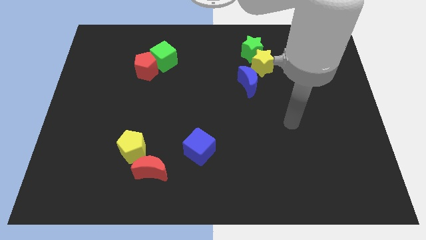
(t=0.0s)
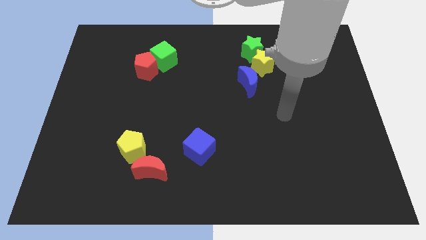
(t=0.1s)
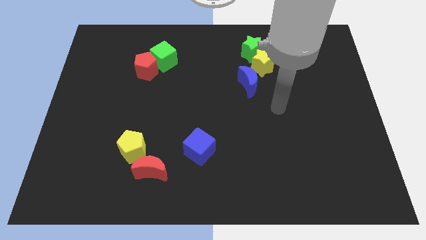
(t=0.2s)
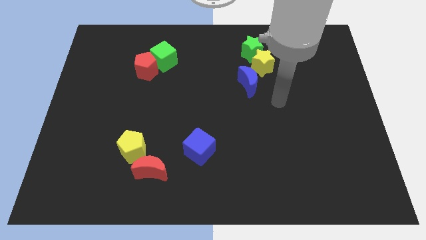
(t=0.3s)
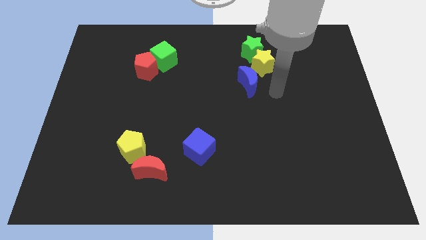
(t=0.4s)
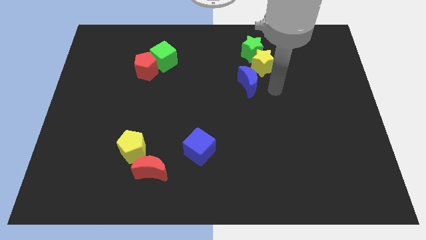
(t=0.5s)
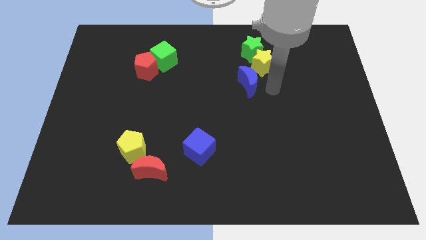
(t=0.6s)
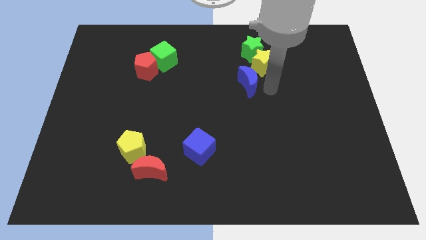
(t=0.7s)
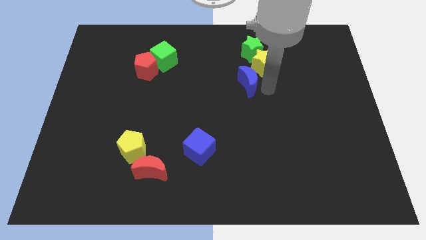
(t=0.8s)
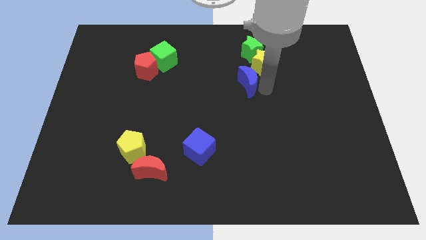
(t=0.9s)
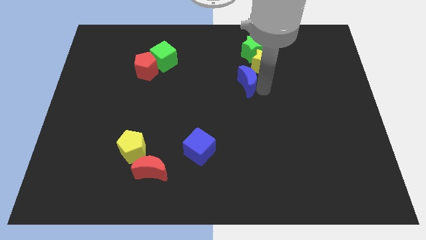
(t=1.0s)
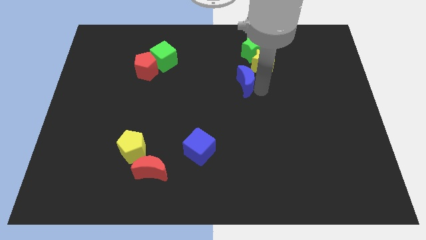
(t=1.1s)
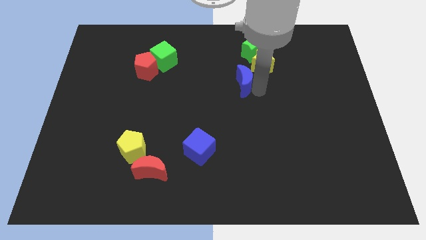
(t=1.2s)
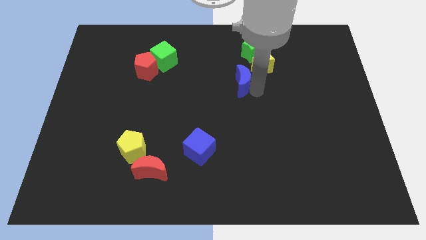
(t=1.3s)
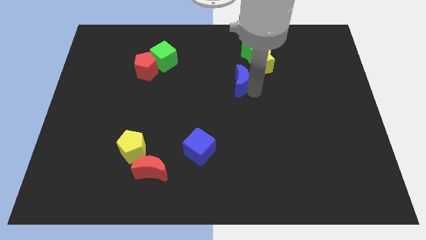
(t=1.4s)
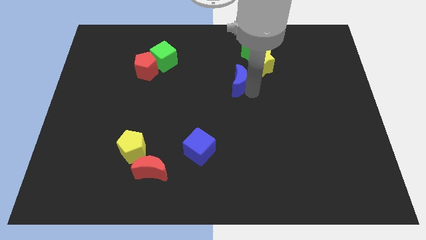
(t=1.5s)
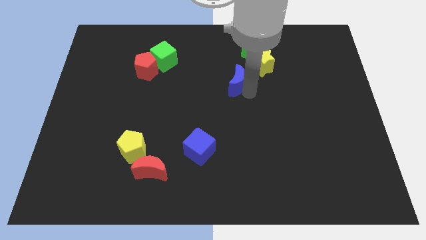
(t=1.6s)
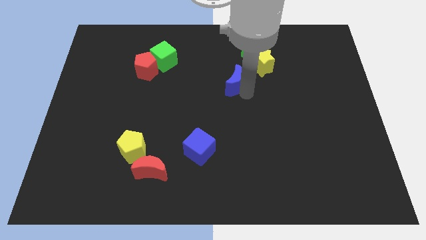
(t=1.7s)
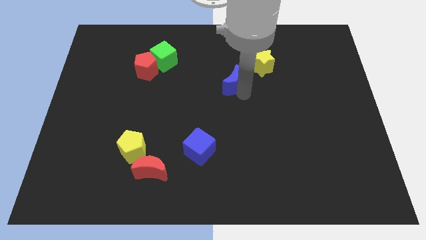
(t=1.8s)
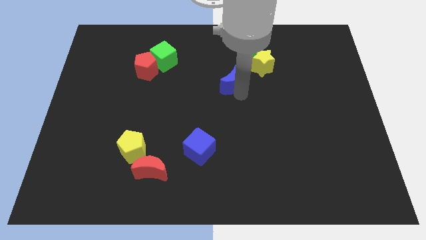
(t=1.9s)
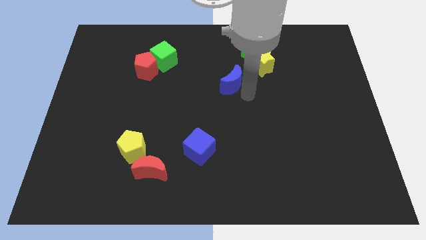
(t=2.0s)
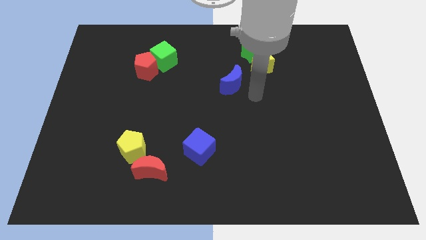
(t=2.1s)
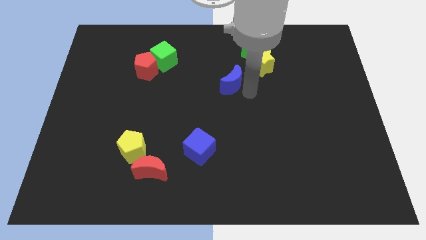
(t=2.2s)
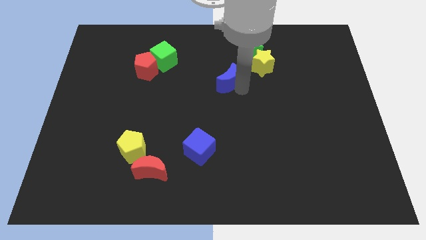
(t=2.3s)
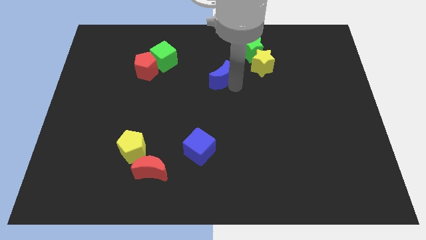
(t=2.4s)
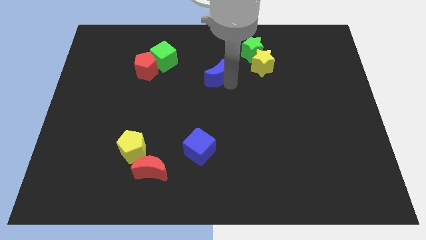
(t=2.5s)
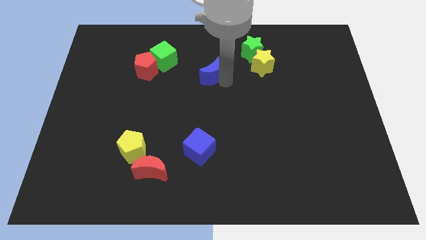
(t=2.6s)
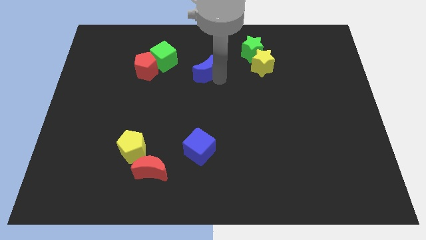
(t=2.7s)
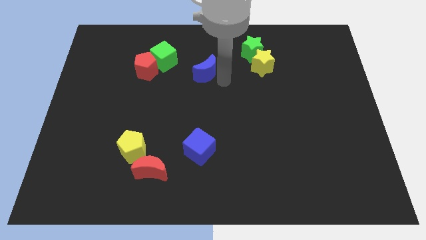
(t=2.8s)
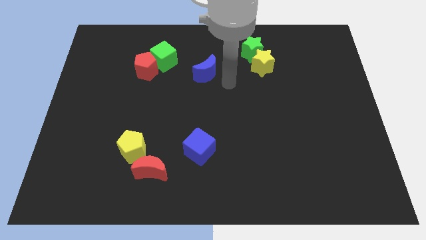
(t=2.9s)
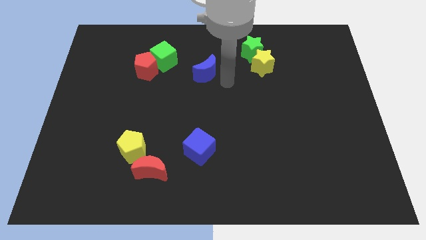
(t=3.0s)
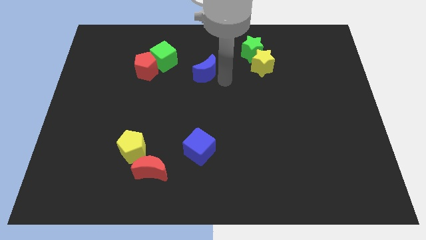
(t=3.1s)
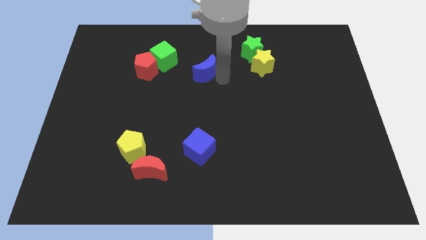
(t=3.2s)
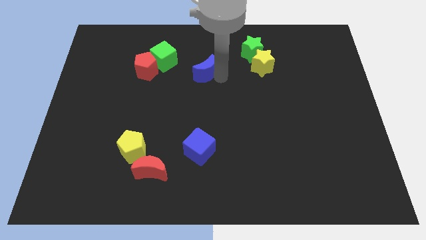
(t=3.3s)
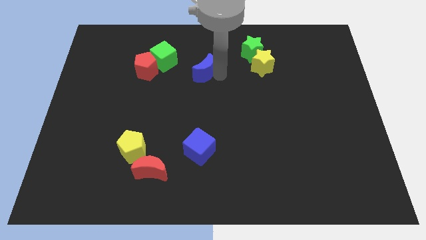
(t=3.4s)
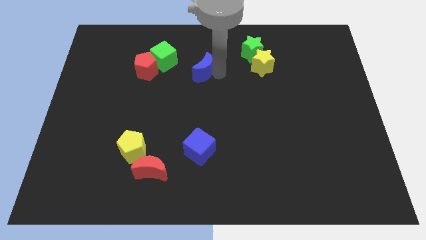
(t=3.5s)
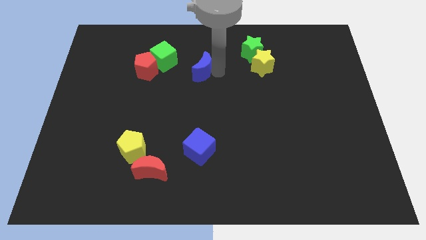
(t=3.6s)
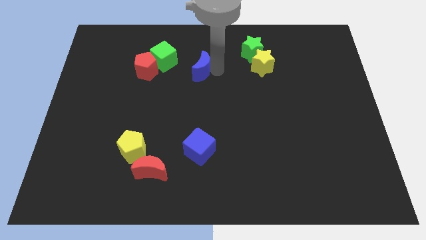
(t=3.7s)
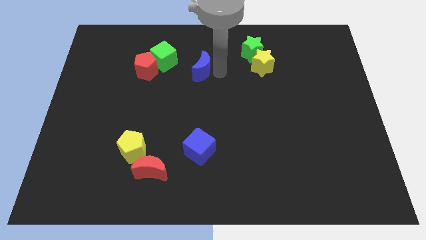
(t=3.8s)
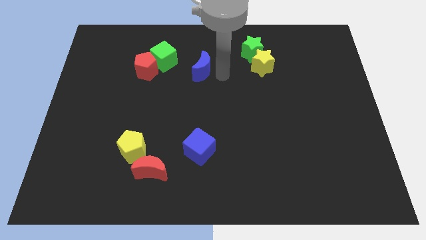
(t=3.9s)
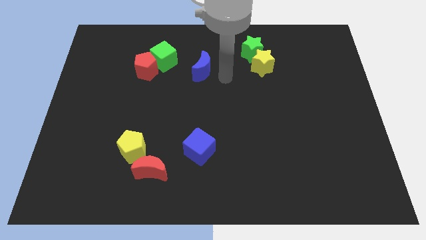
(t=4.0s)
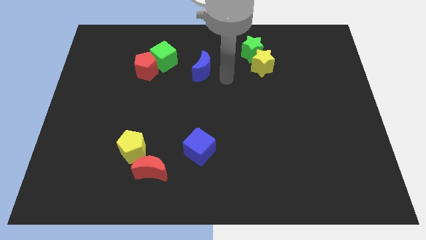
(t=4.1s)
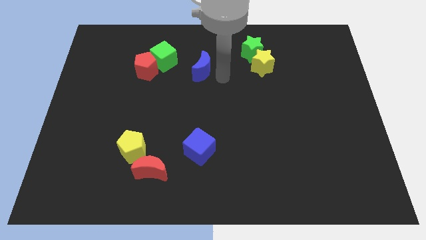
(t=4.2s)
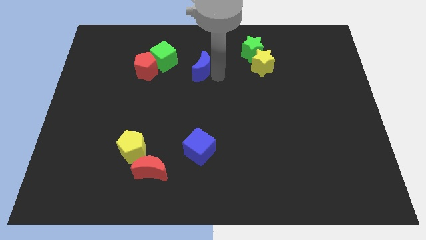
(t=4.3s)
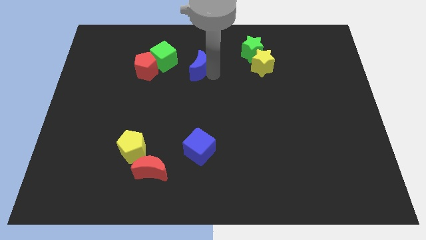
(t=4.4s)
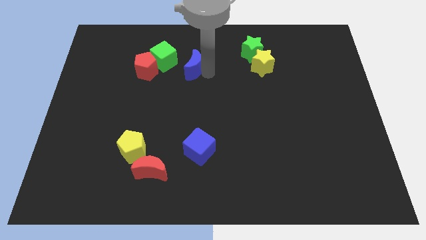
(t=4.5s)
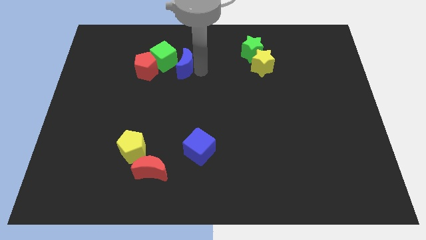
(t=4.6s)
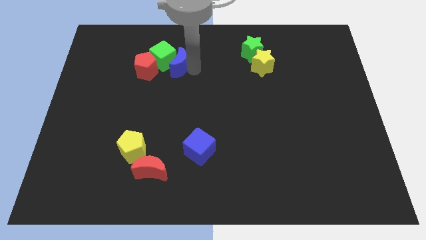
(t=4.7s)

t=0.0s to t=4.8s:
move the blue moon towards the green cube

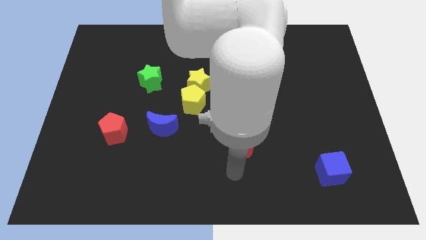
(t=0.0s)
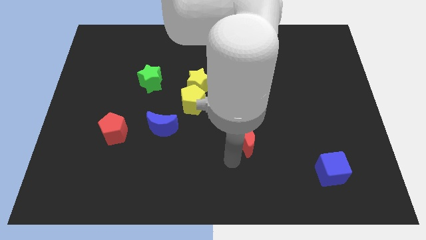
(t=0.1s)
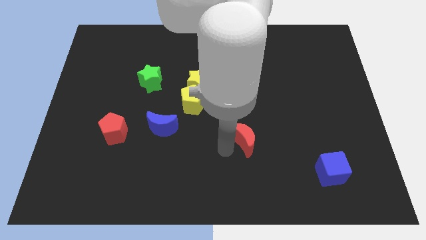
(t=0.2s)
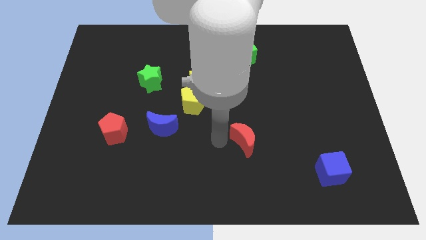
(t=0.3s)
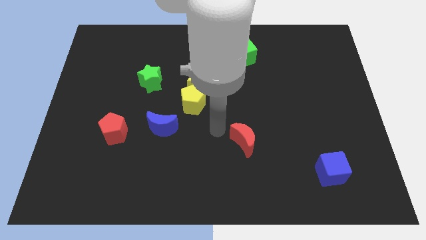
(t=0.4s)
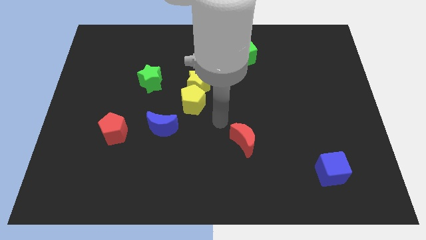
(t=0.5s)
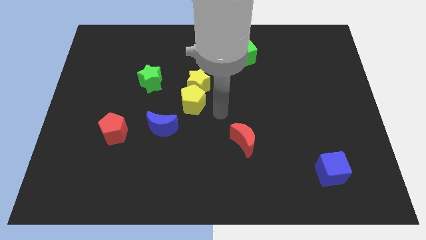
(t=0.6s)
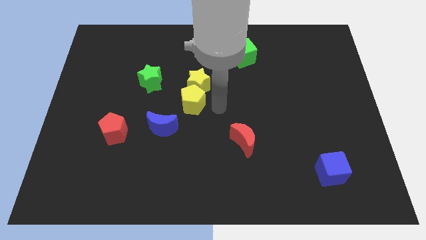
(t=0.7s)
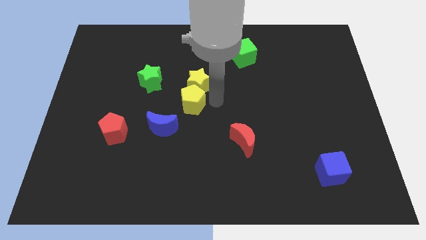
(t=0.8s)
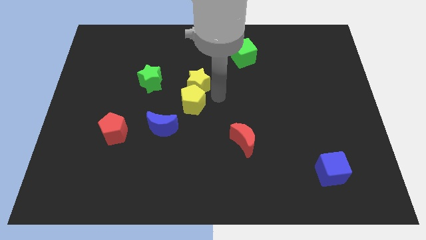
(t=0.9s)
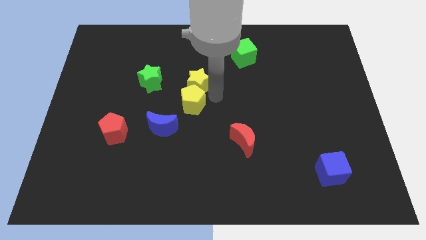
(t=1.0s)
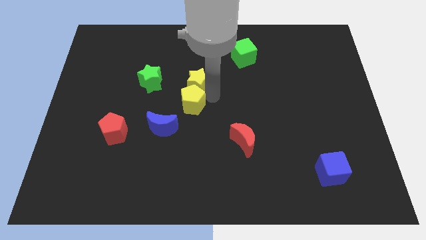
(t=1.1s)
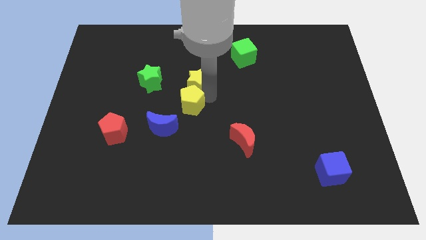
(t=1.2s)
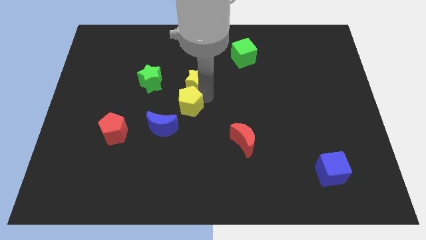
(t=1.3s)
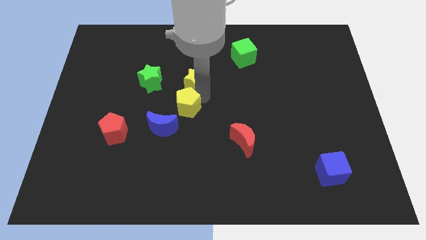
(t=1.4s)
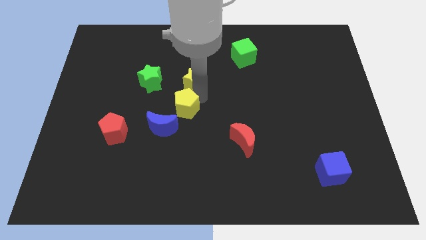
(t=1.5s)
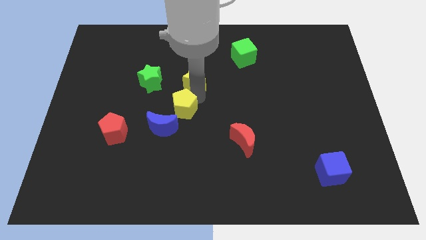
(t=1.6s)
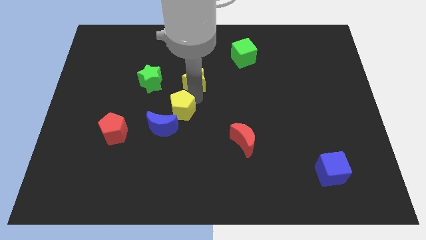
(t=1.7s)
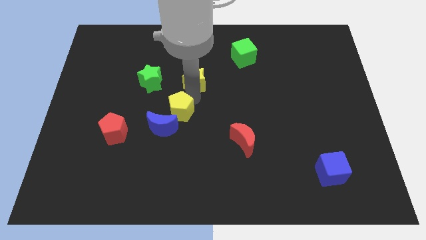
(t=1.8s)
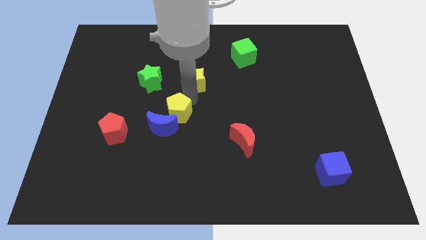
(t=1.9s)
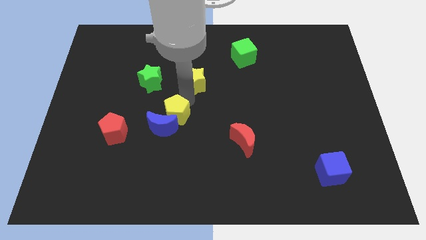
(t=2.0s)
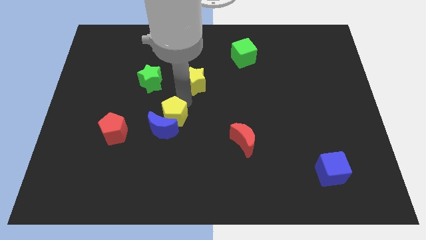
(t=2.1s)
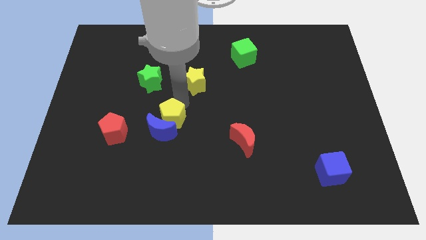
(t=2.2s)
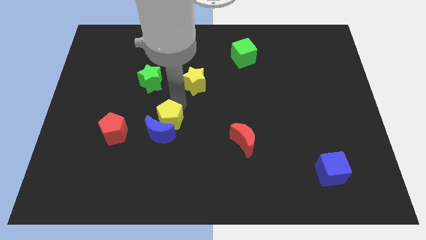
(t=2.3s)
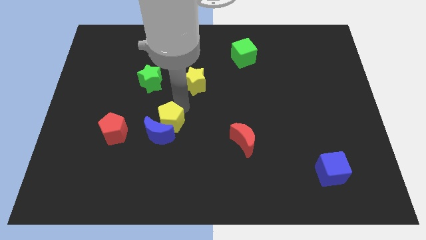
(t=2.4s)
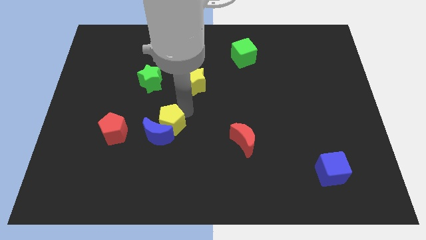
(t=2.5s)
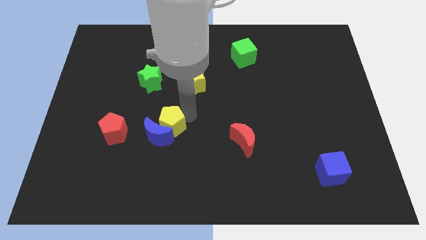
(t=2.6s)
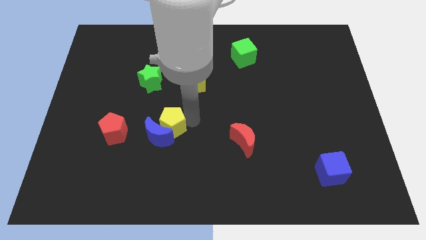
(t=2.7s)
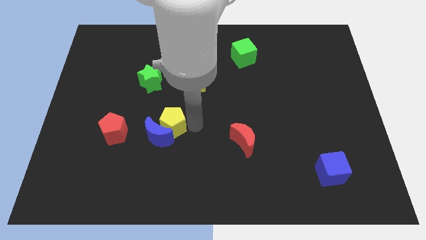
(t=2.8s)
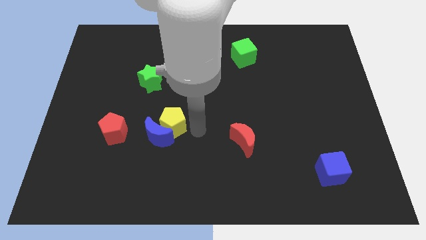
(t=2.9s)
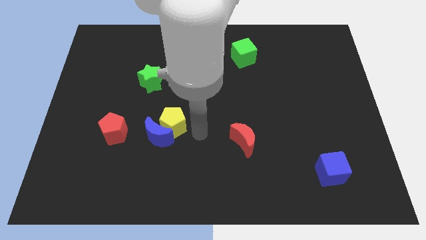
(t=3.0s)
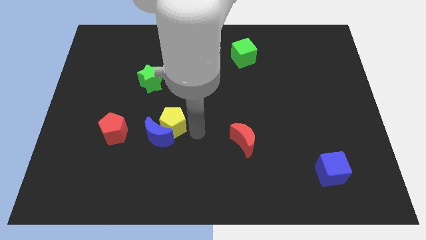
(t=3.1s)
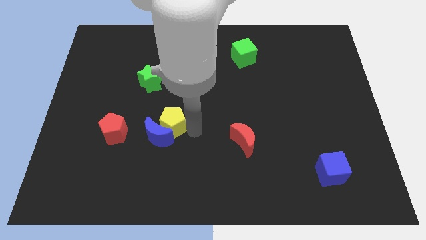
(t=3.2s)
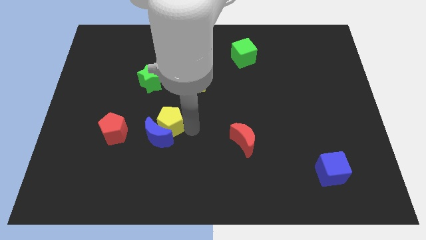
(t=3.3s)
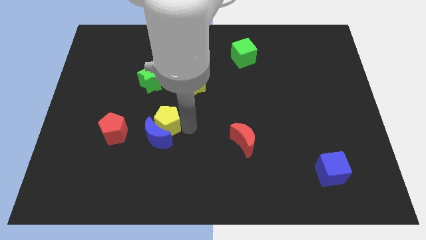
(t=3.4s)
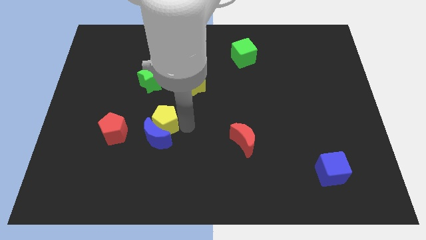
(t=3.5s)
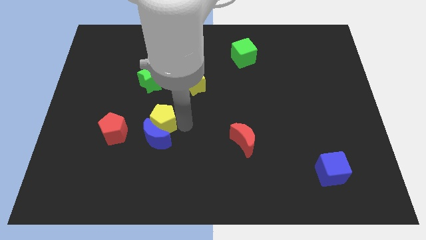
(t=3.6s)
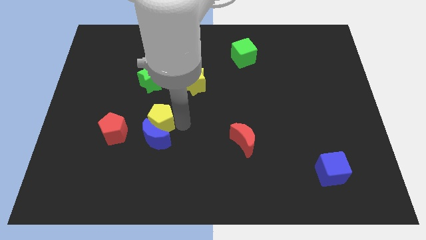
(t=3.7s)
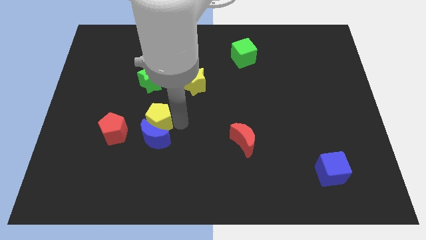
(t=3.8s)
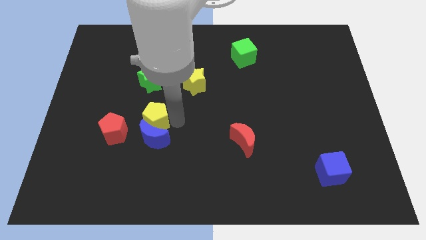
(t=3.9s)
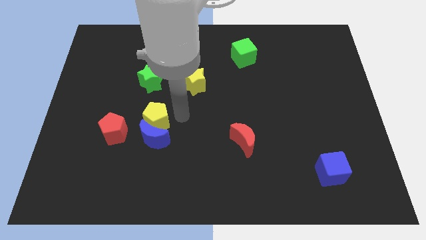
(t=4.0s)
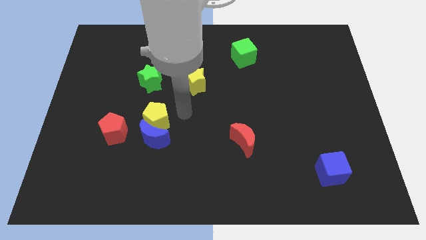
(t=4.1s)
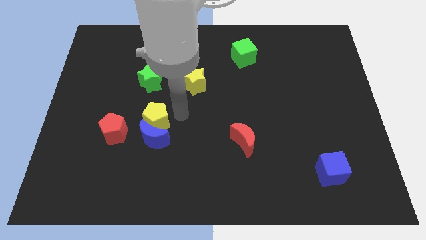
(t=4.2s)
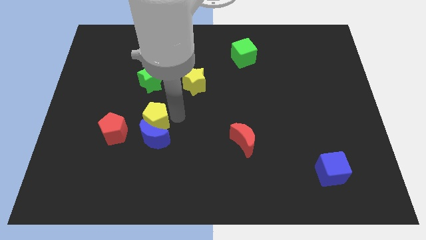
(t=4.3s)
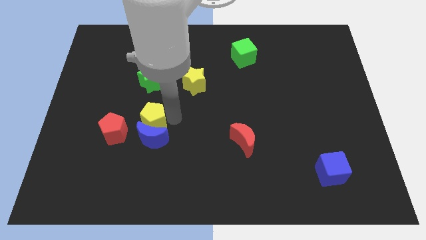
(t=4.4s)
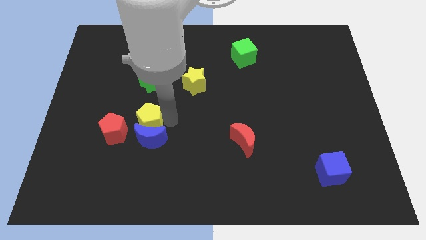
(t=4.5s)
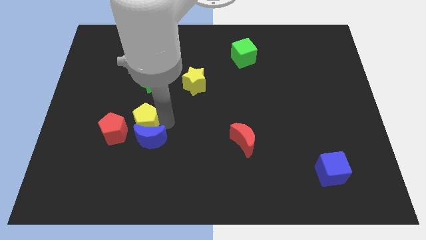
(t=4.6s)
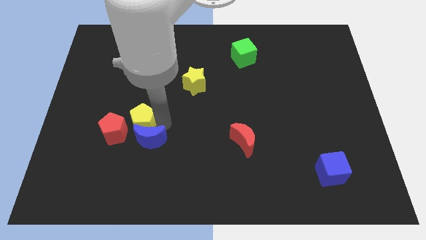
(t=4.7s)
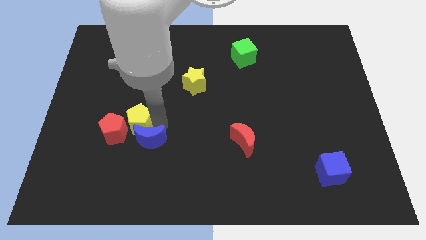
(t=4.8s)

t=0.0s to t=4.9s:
move the yellow pentagon towards the red pentagon
